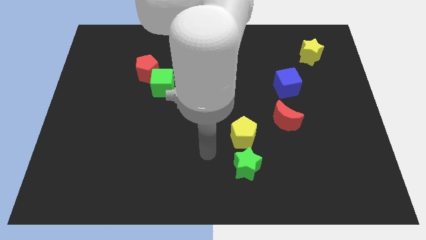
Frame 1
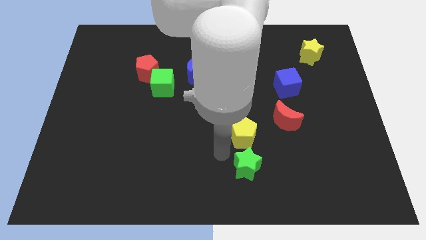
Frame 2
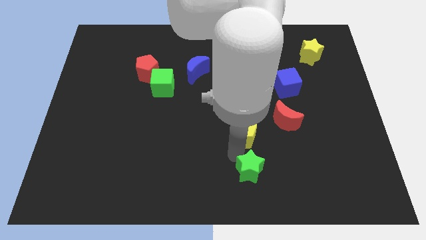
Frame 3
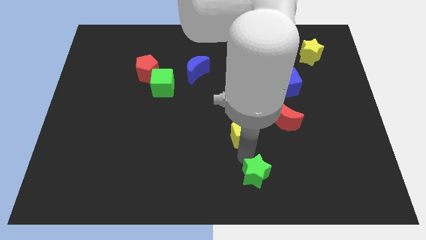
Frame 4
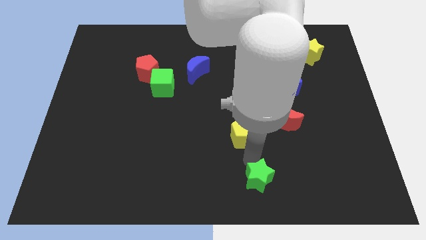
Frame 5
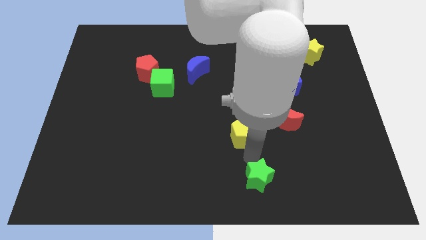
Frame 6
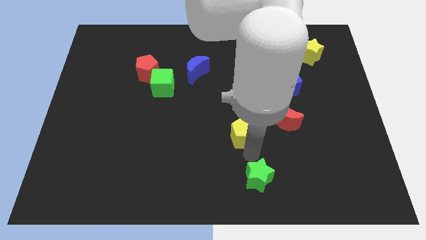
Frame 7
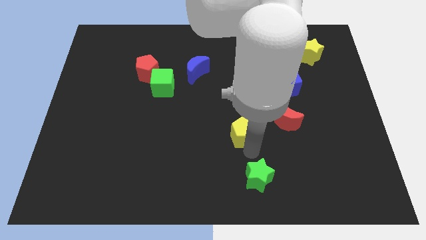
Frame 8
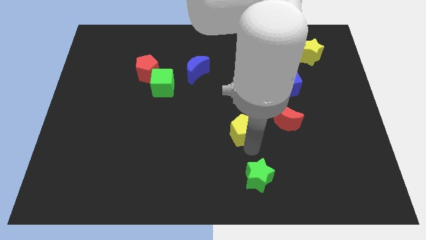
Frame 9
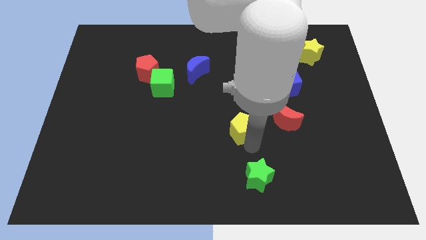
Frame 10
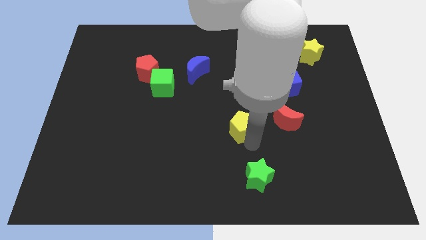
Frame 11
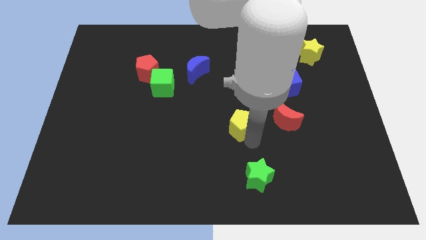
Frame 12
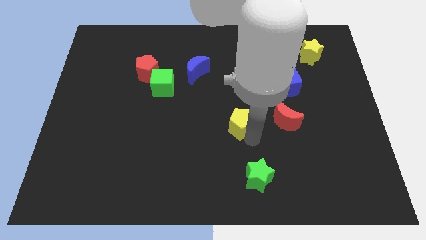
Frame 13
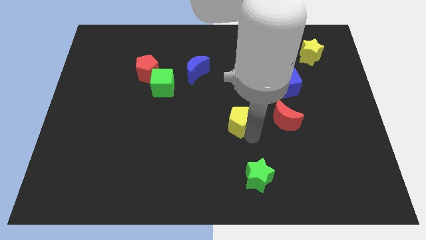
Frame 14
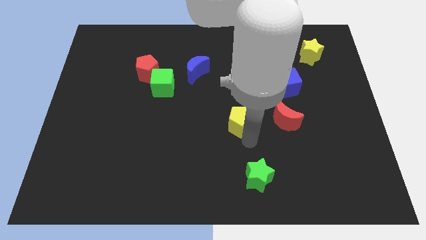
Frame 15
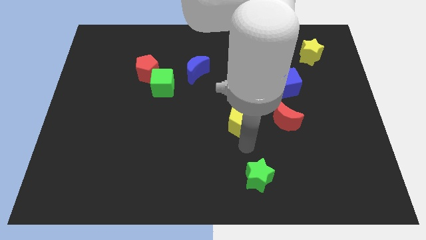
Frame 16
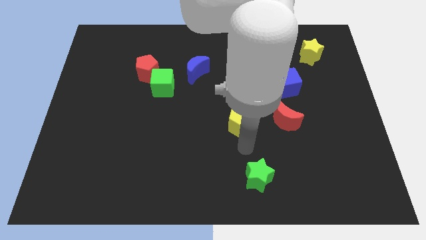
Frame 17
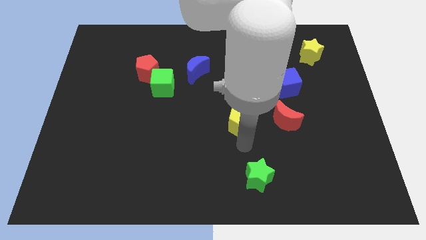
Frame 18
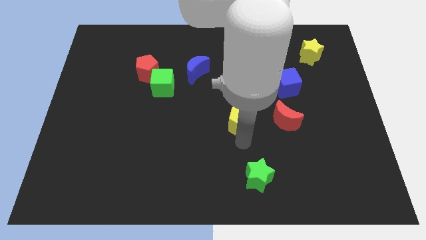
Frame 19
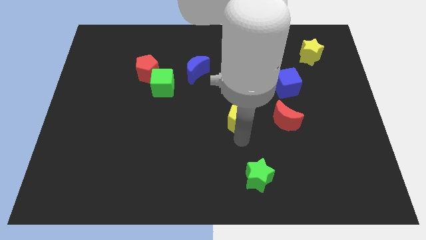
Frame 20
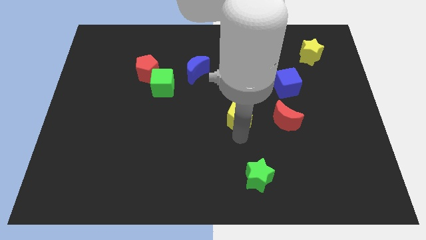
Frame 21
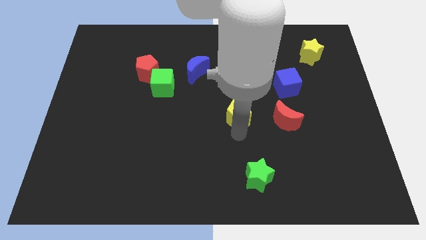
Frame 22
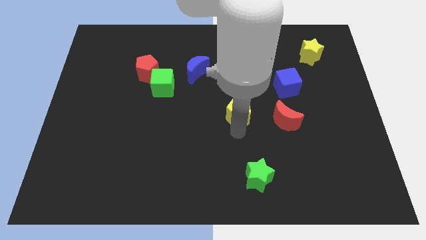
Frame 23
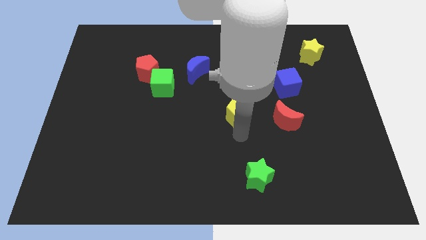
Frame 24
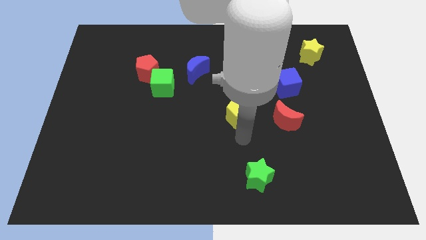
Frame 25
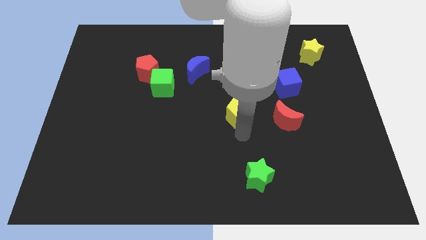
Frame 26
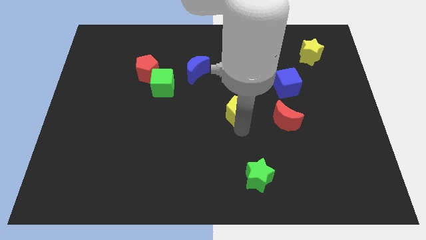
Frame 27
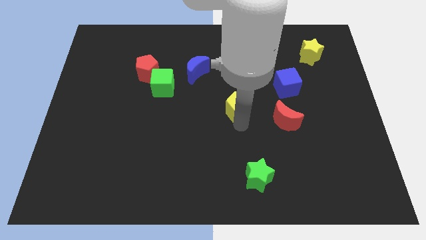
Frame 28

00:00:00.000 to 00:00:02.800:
slide the yellow pentagon upwards a little

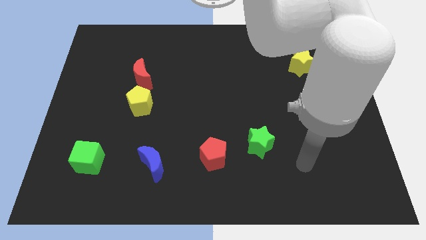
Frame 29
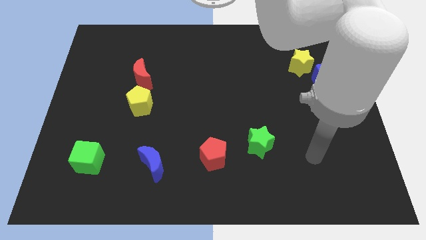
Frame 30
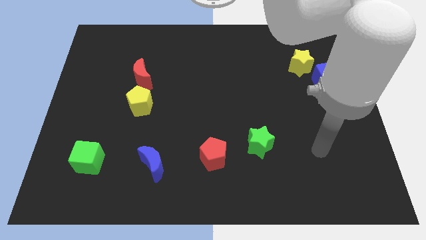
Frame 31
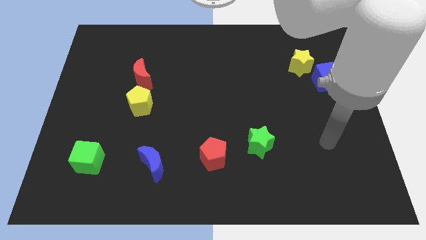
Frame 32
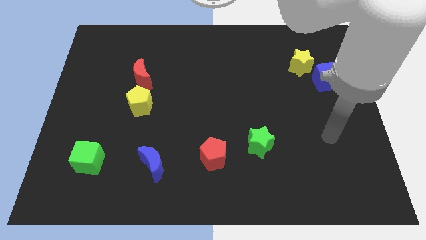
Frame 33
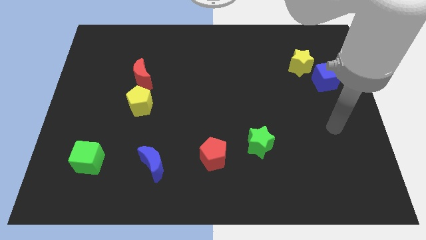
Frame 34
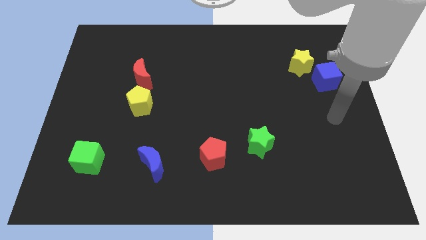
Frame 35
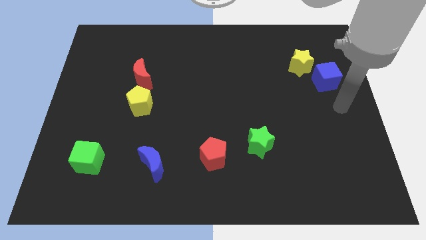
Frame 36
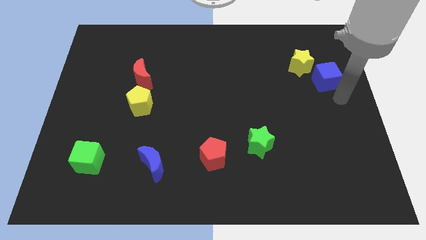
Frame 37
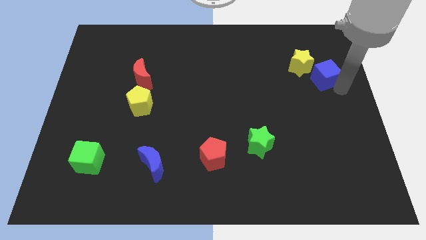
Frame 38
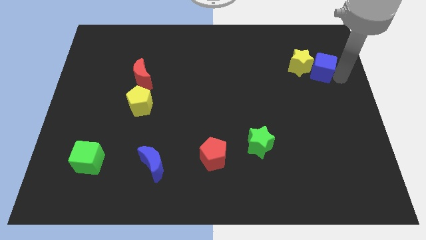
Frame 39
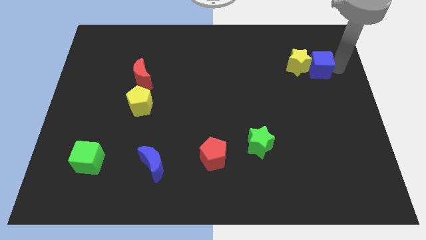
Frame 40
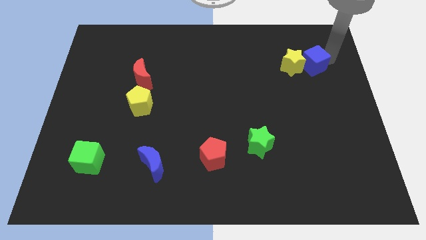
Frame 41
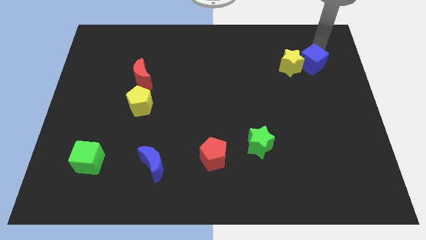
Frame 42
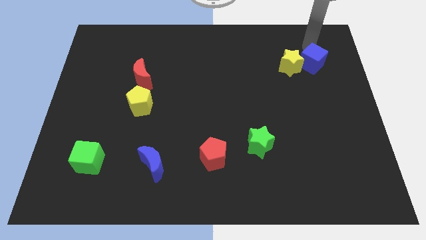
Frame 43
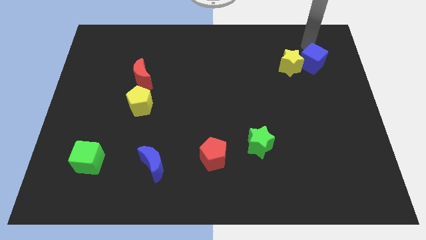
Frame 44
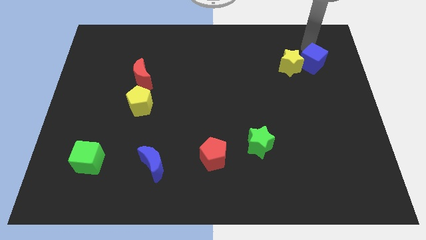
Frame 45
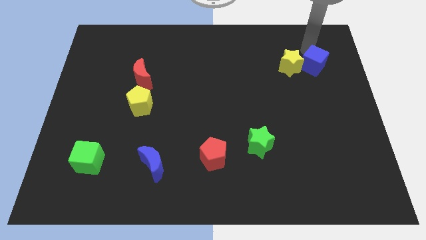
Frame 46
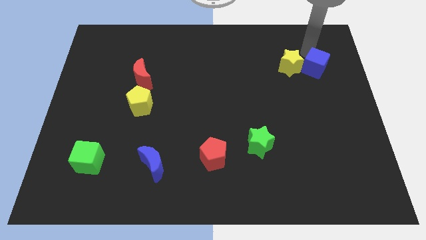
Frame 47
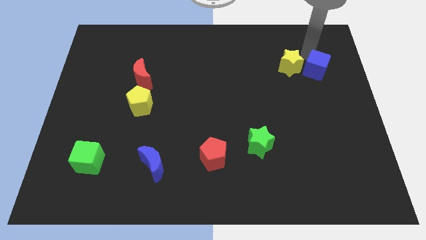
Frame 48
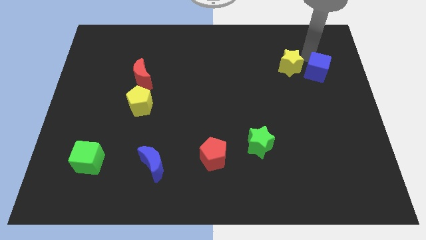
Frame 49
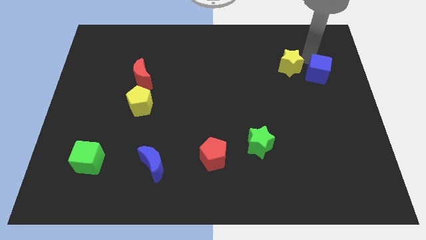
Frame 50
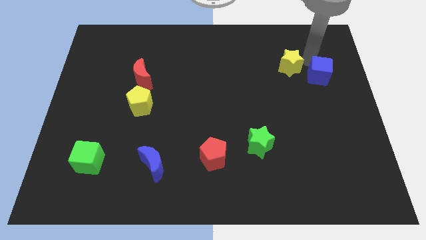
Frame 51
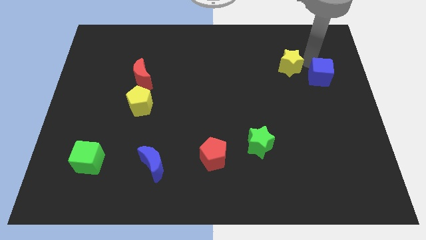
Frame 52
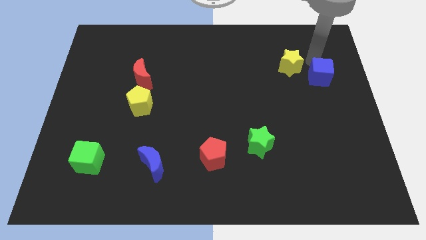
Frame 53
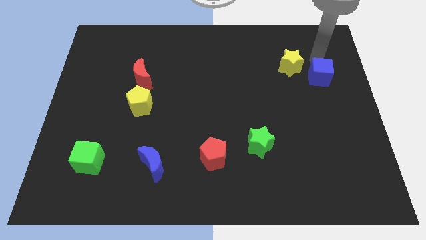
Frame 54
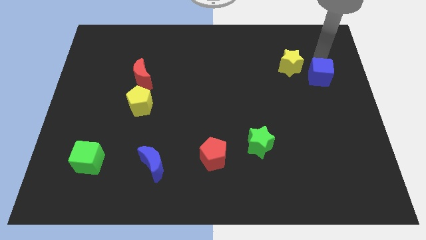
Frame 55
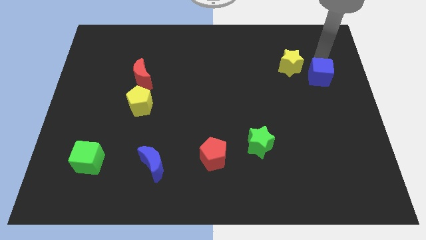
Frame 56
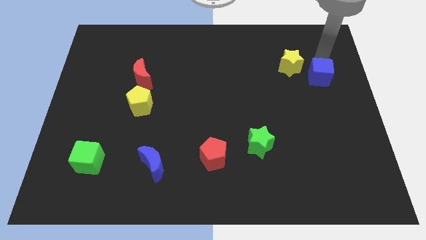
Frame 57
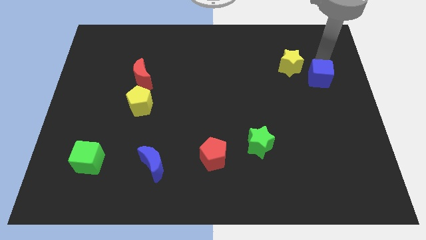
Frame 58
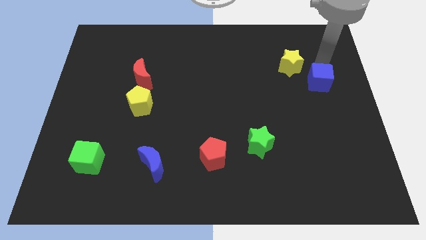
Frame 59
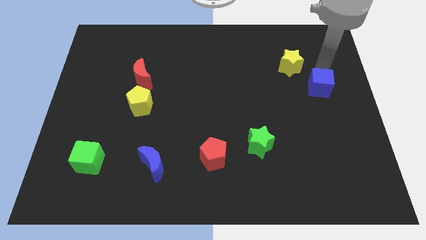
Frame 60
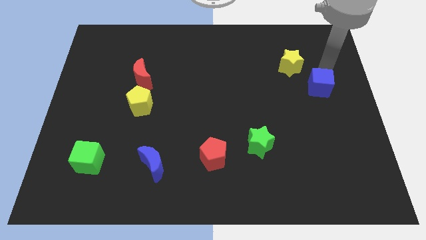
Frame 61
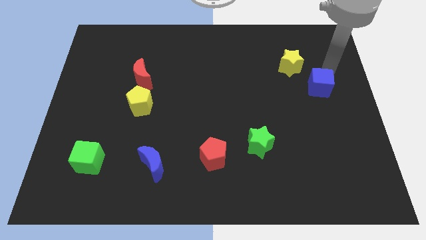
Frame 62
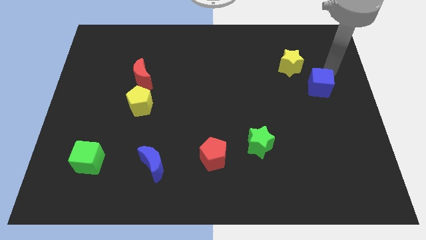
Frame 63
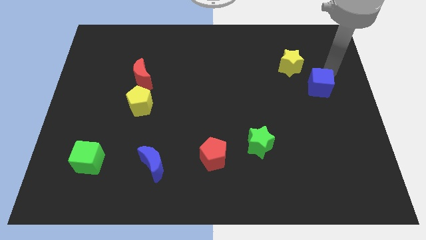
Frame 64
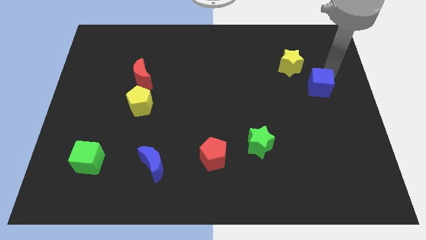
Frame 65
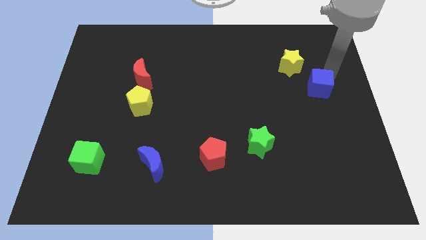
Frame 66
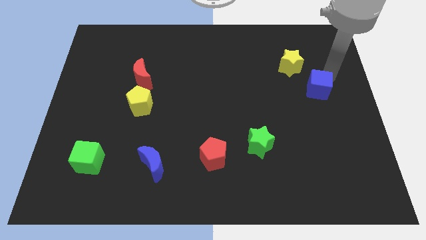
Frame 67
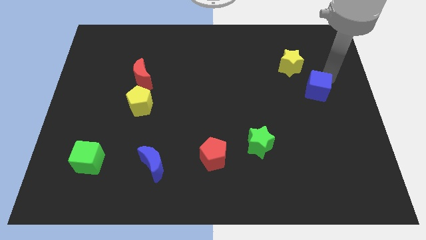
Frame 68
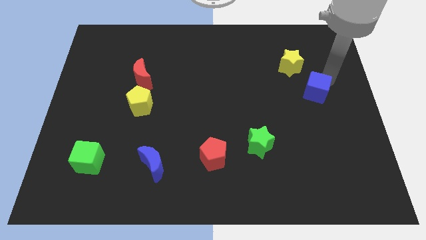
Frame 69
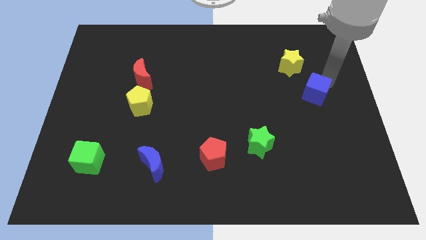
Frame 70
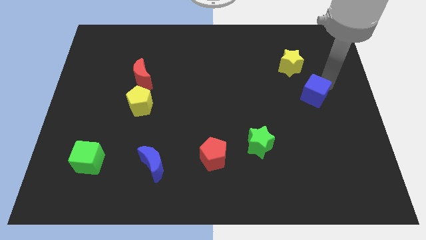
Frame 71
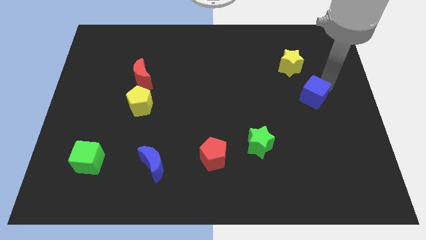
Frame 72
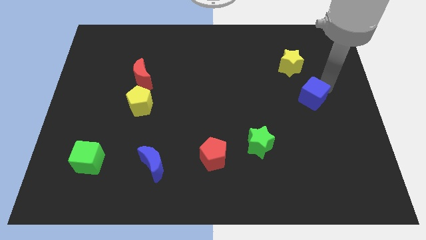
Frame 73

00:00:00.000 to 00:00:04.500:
move the blue cube down and left diagonally a little bit

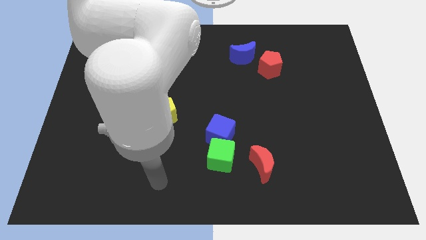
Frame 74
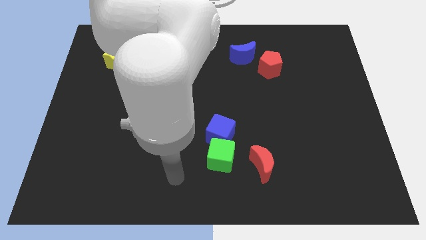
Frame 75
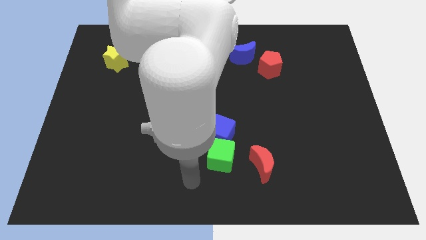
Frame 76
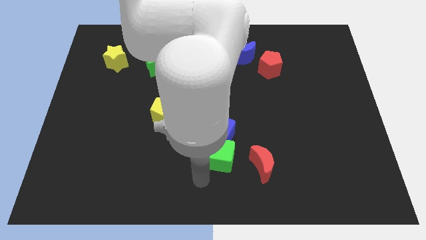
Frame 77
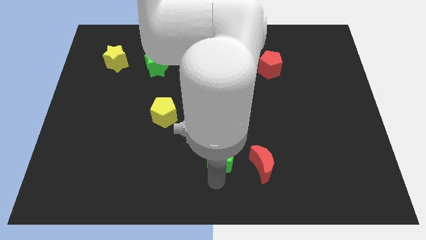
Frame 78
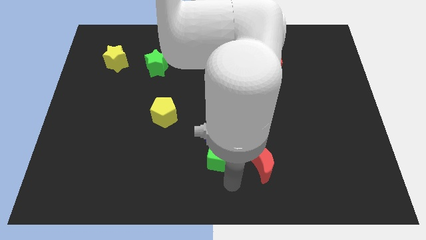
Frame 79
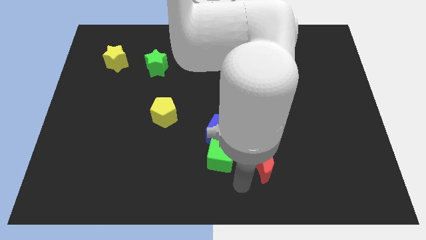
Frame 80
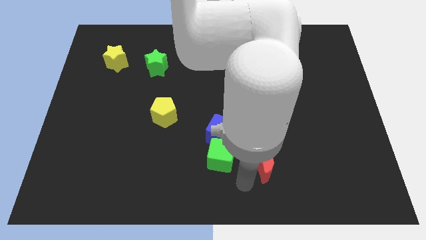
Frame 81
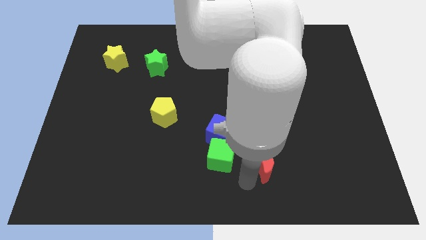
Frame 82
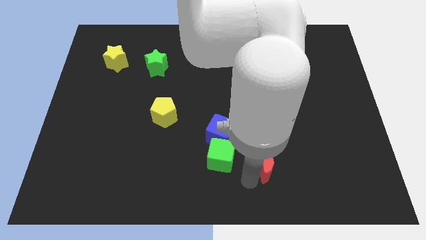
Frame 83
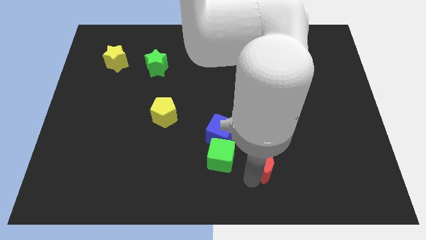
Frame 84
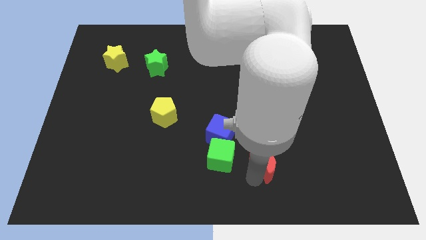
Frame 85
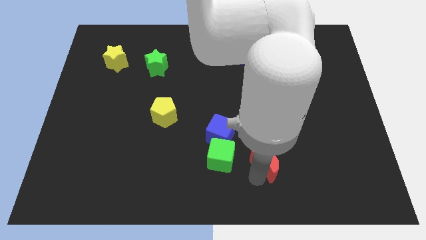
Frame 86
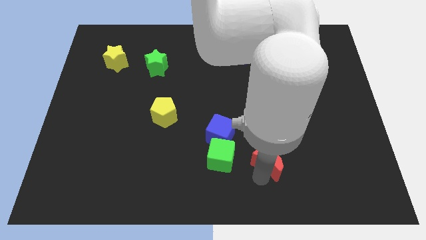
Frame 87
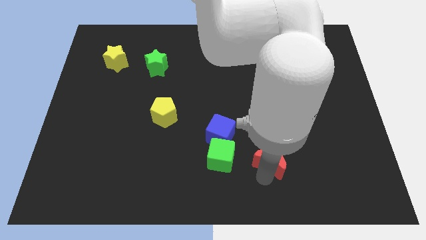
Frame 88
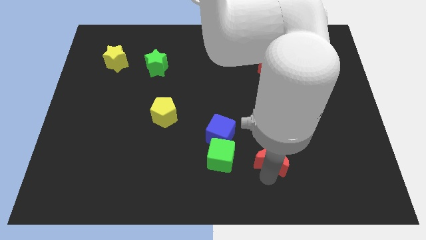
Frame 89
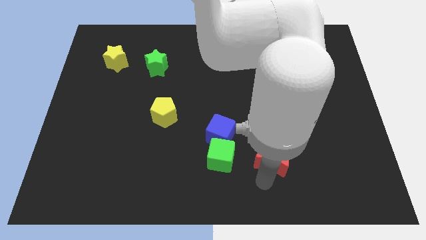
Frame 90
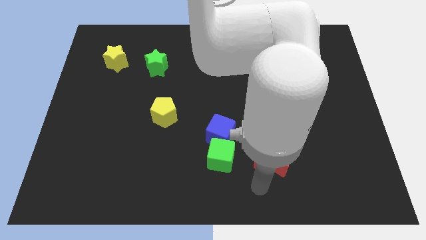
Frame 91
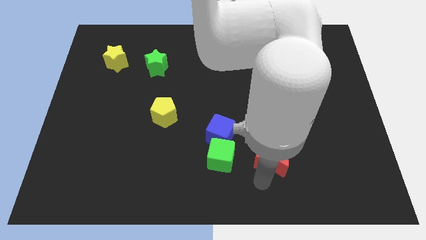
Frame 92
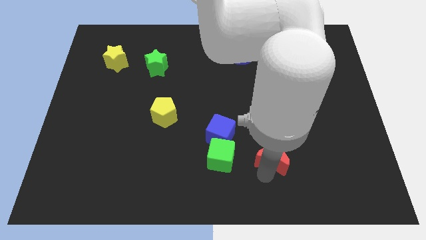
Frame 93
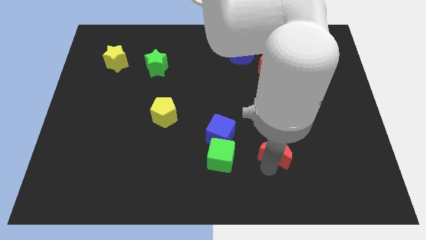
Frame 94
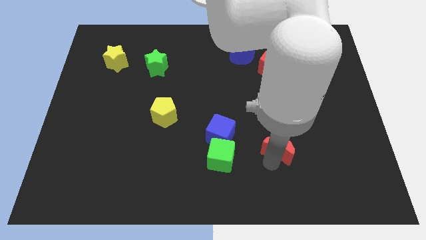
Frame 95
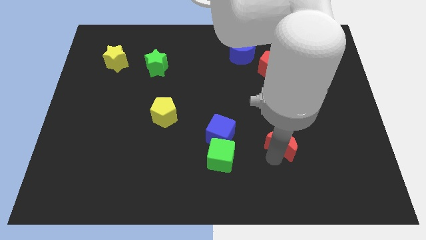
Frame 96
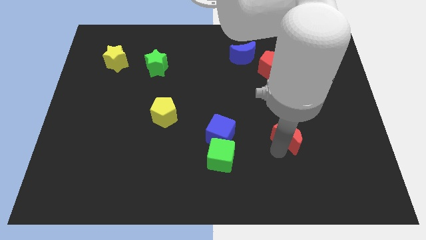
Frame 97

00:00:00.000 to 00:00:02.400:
slide the red moon somewhat diagonally upwards and right
